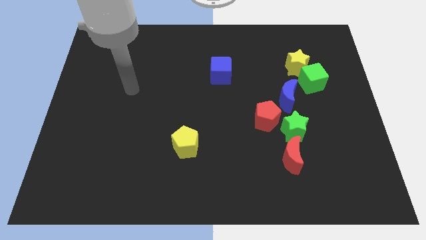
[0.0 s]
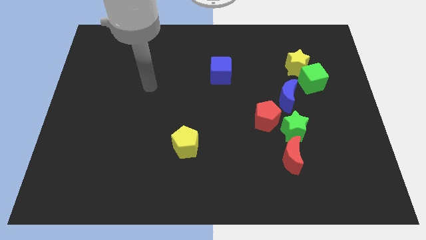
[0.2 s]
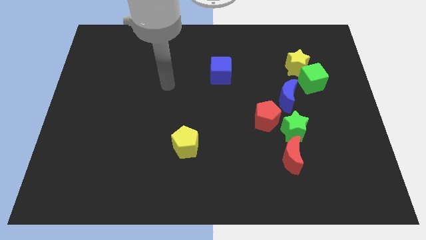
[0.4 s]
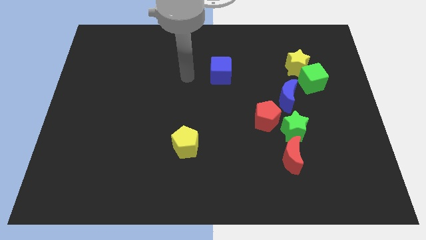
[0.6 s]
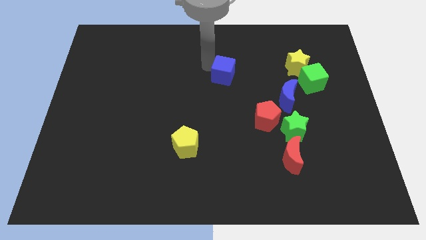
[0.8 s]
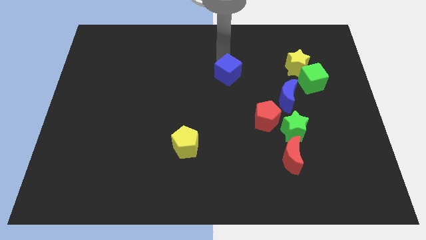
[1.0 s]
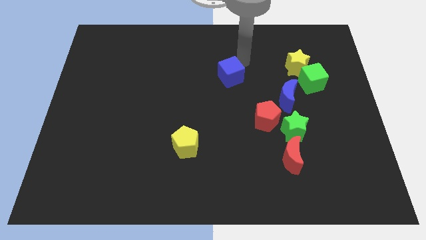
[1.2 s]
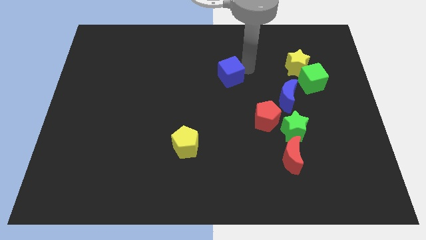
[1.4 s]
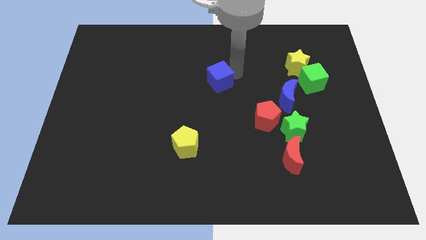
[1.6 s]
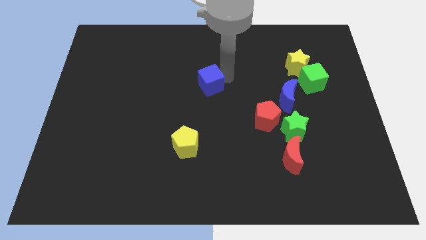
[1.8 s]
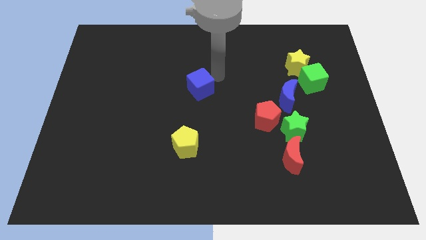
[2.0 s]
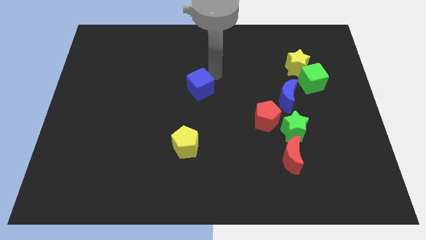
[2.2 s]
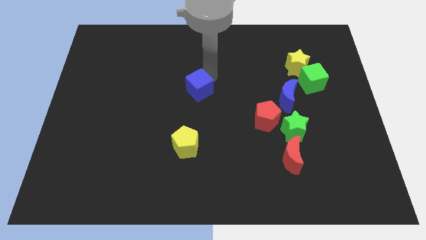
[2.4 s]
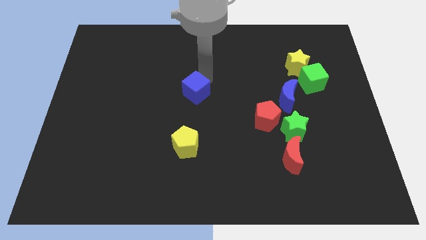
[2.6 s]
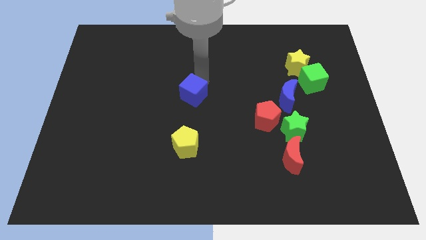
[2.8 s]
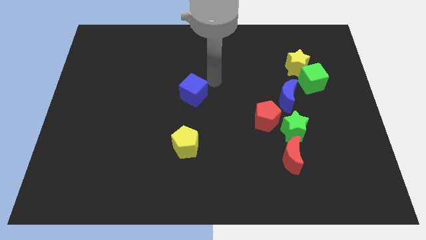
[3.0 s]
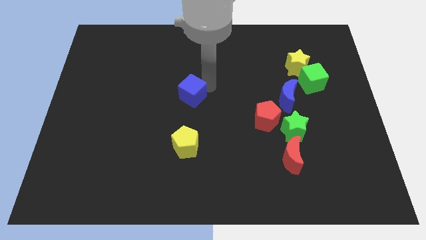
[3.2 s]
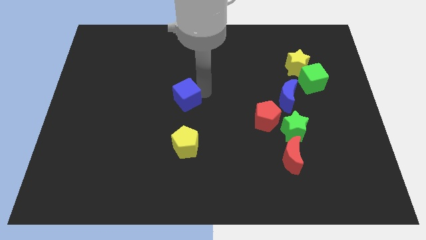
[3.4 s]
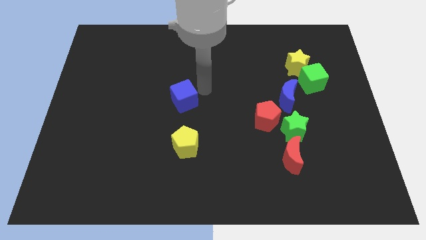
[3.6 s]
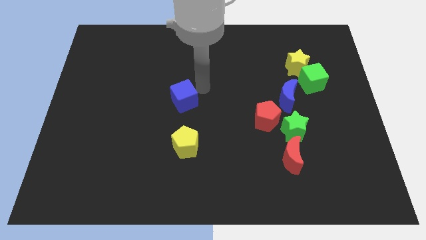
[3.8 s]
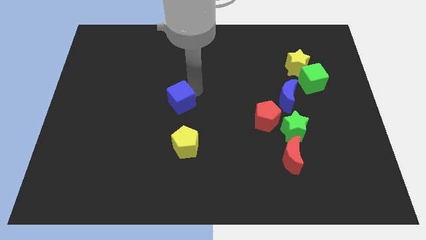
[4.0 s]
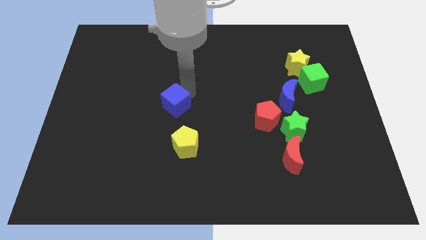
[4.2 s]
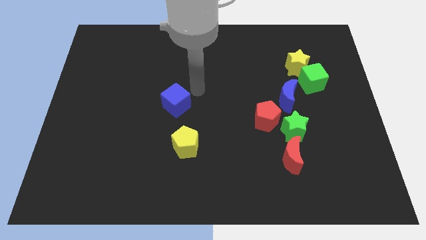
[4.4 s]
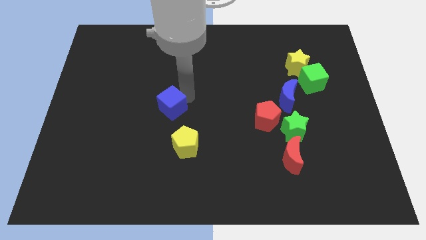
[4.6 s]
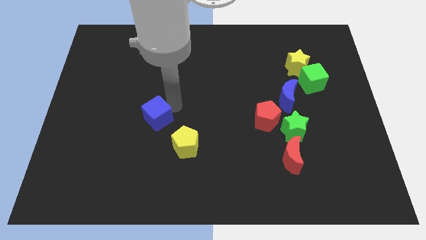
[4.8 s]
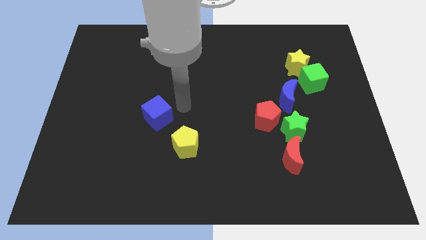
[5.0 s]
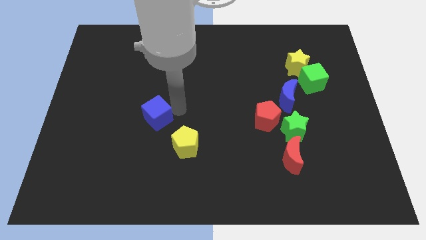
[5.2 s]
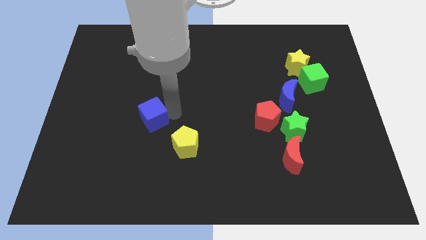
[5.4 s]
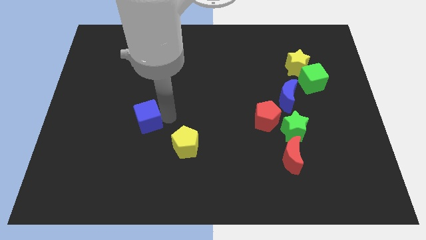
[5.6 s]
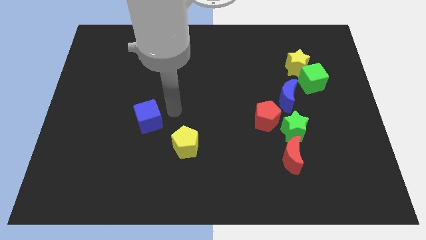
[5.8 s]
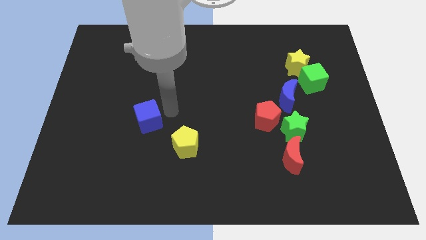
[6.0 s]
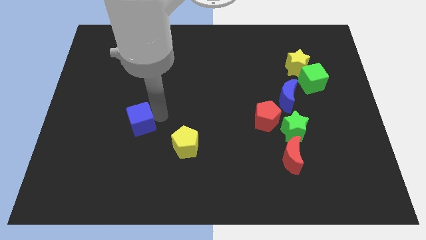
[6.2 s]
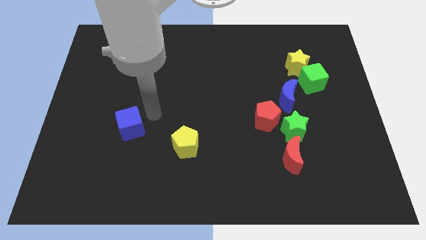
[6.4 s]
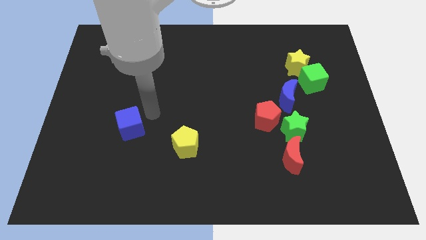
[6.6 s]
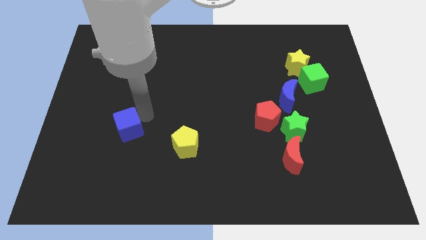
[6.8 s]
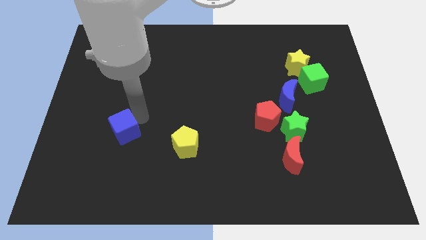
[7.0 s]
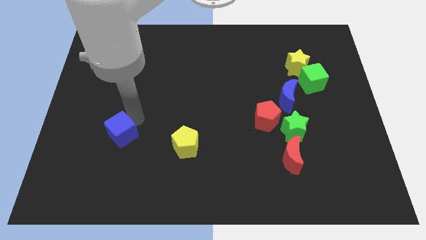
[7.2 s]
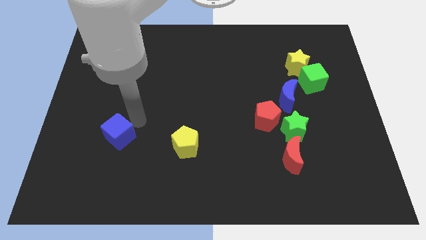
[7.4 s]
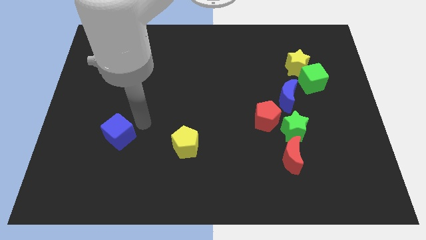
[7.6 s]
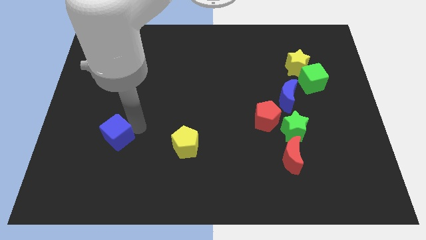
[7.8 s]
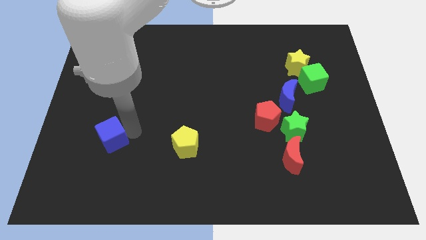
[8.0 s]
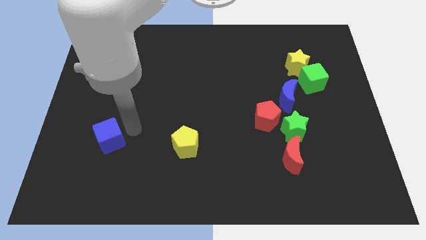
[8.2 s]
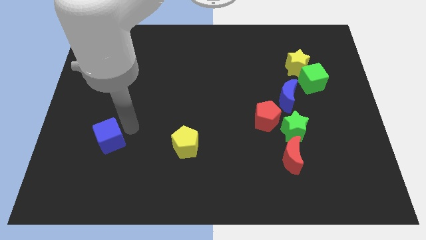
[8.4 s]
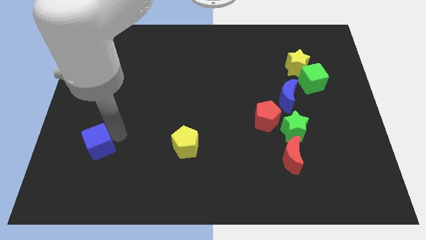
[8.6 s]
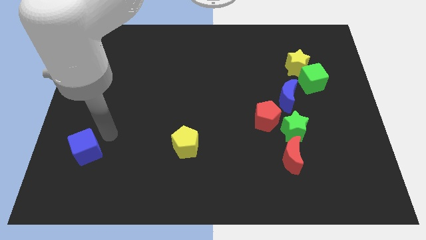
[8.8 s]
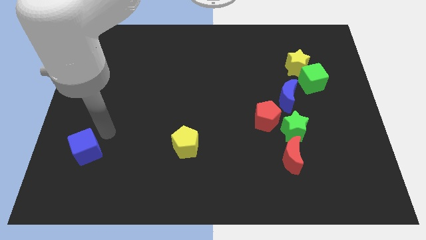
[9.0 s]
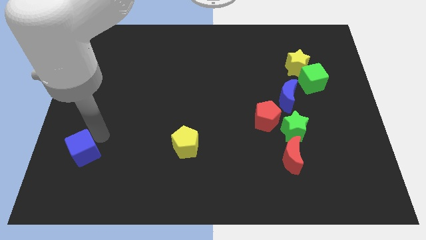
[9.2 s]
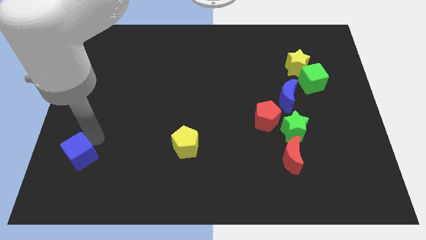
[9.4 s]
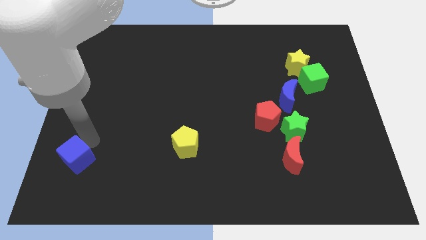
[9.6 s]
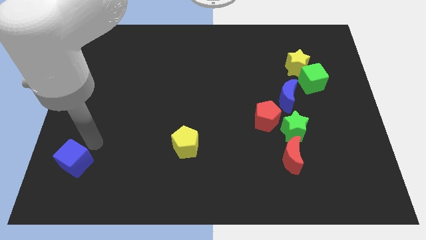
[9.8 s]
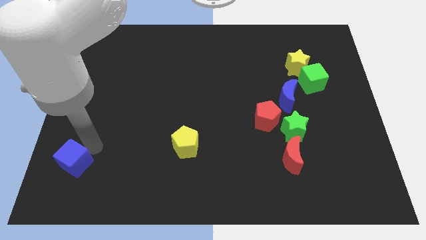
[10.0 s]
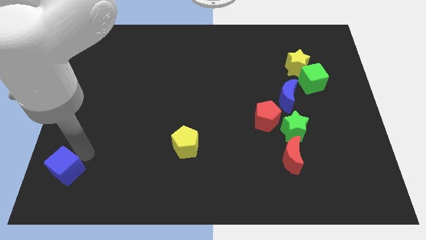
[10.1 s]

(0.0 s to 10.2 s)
slide the blue cube to the bottom left of the board

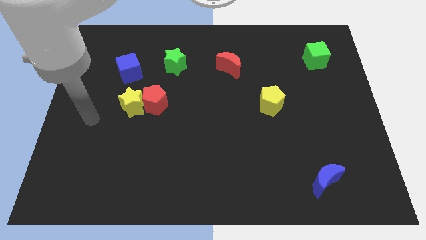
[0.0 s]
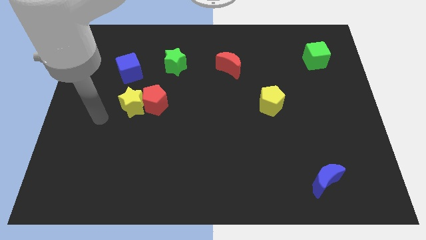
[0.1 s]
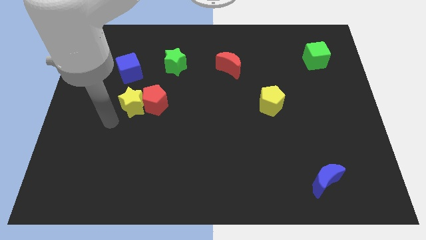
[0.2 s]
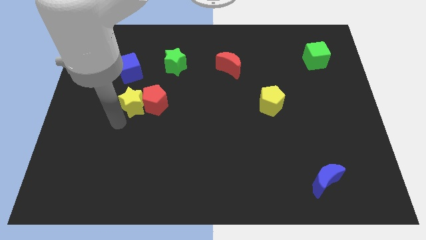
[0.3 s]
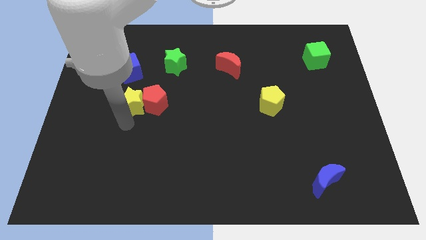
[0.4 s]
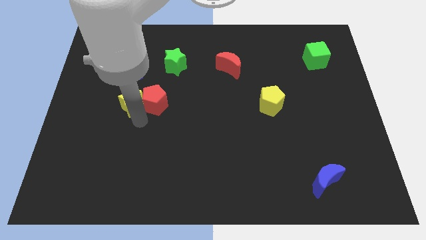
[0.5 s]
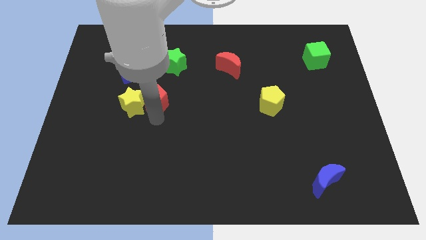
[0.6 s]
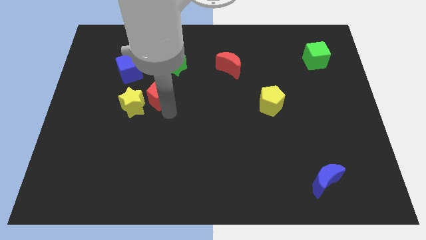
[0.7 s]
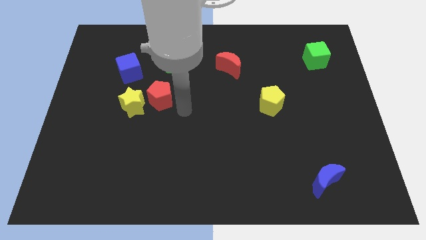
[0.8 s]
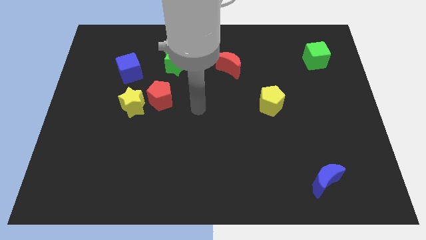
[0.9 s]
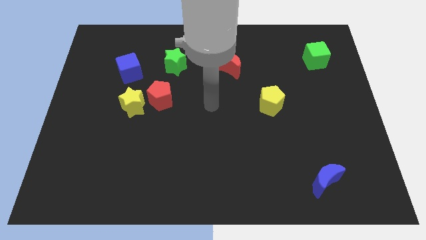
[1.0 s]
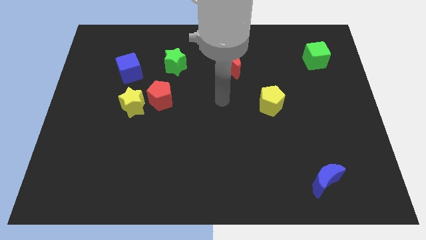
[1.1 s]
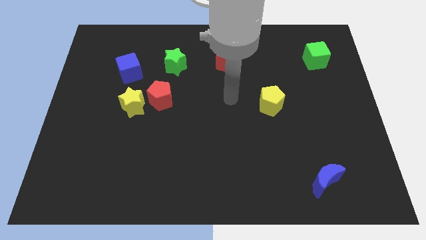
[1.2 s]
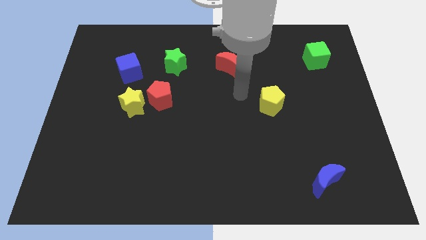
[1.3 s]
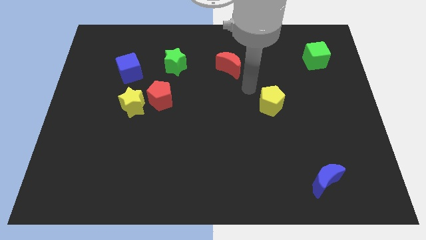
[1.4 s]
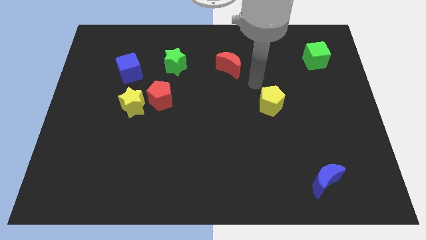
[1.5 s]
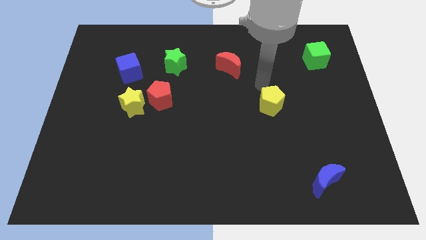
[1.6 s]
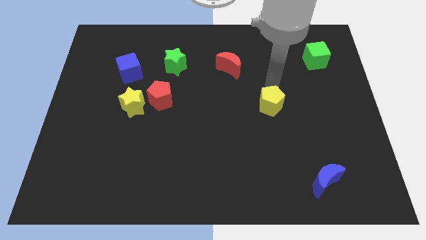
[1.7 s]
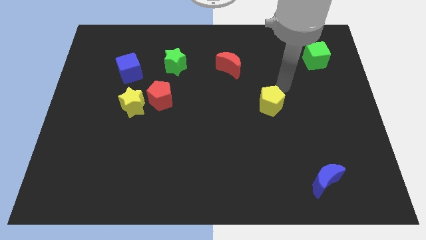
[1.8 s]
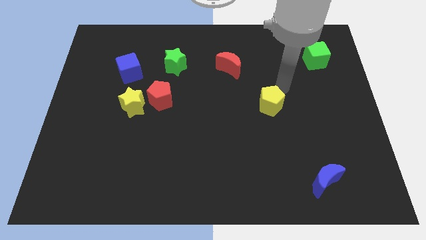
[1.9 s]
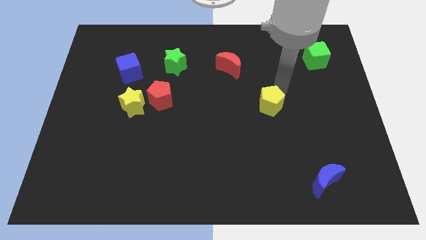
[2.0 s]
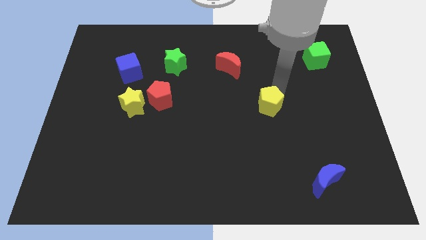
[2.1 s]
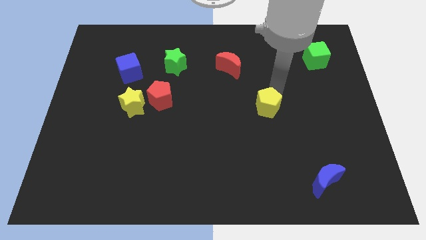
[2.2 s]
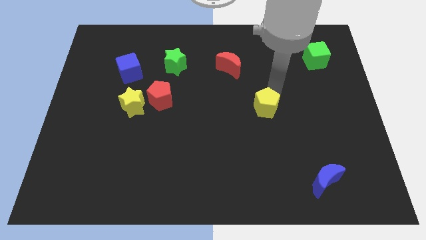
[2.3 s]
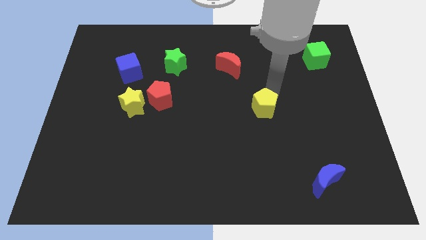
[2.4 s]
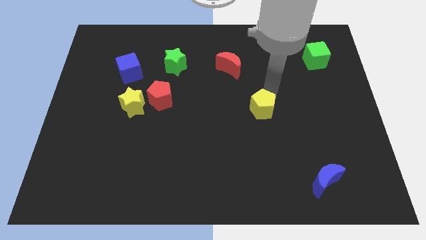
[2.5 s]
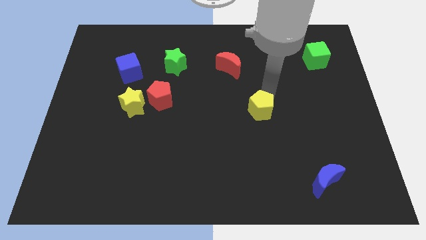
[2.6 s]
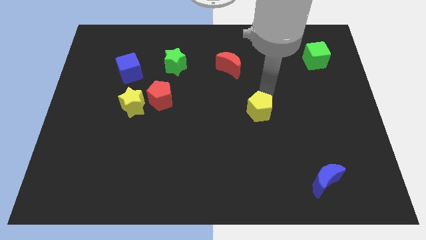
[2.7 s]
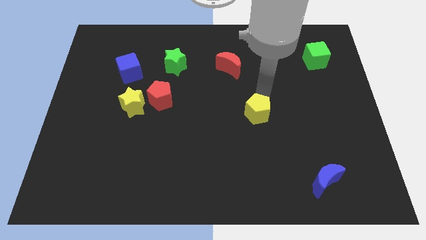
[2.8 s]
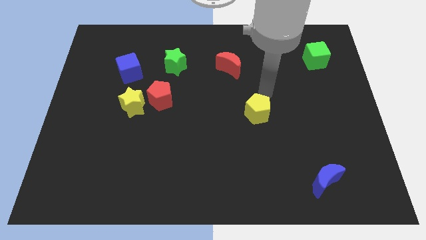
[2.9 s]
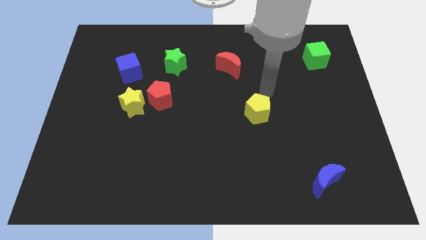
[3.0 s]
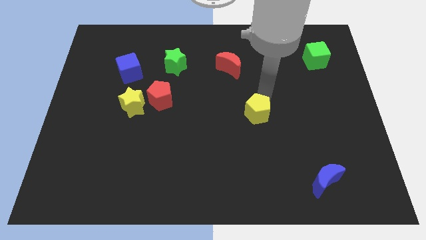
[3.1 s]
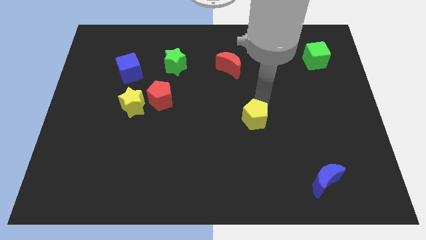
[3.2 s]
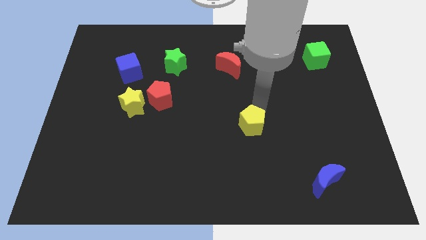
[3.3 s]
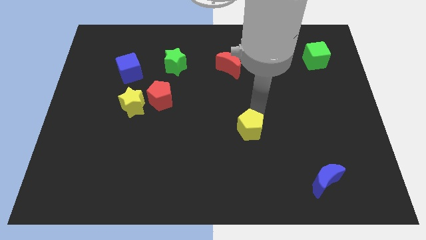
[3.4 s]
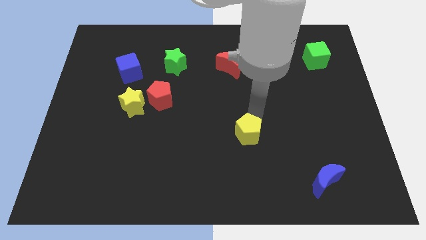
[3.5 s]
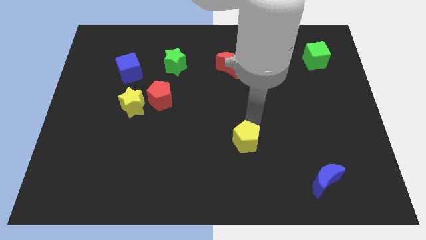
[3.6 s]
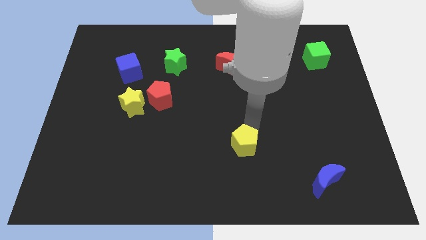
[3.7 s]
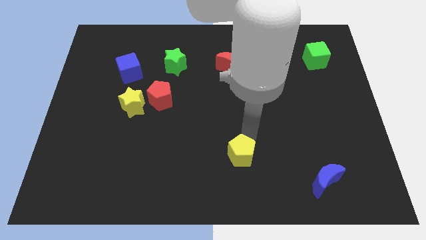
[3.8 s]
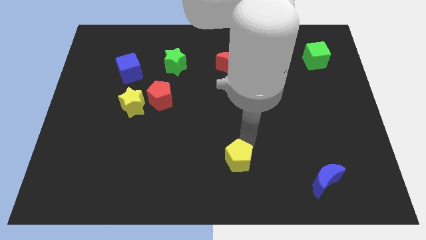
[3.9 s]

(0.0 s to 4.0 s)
move the yellow pentagon to the bottom side
